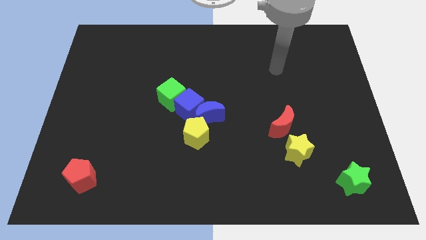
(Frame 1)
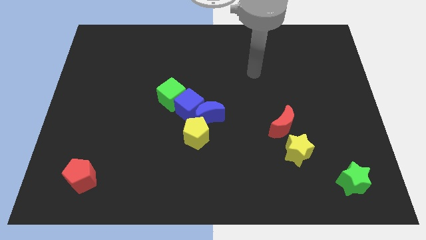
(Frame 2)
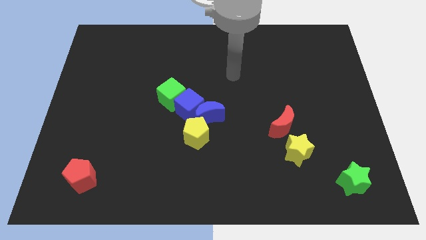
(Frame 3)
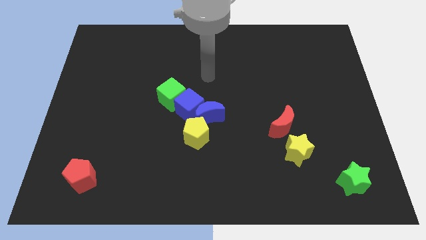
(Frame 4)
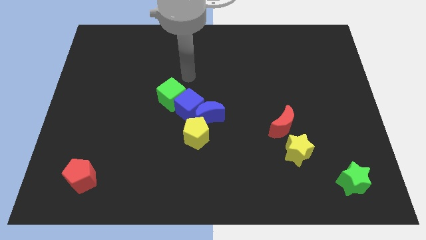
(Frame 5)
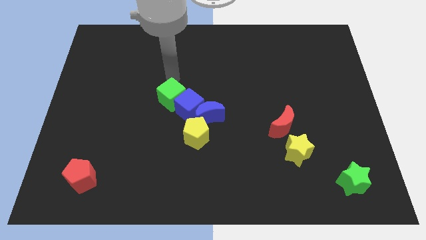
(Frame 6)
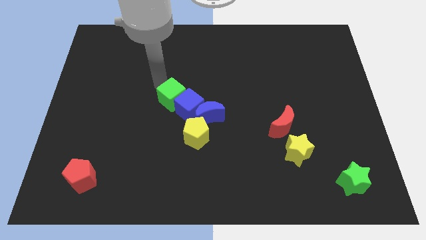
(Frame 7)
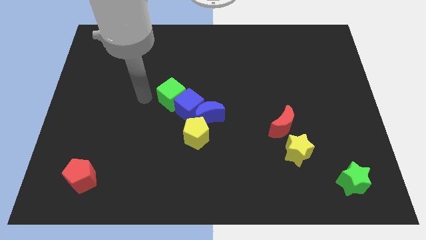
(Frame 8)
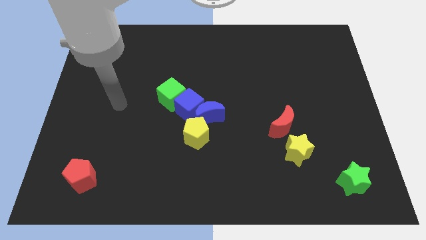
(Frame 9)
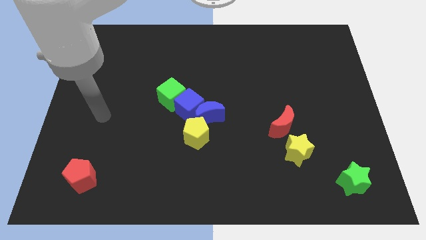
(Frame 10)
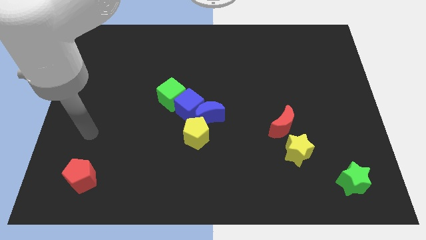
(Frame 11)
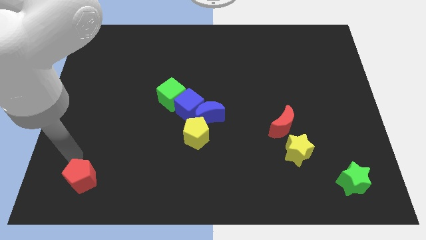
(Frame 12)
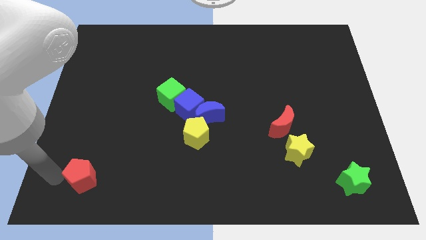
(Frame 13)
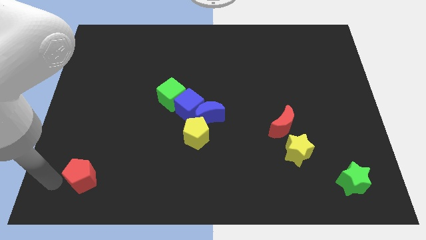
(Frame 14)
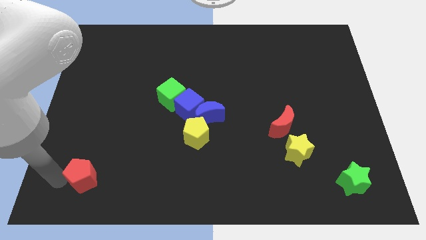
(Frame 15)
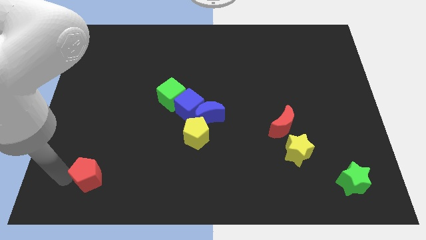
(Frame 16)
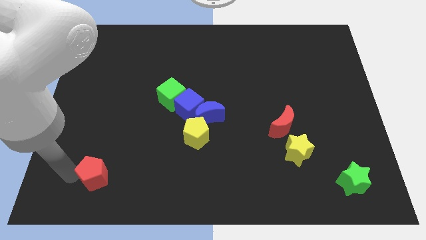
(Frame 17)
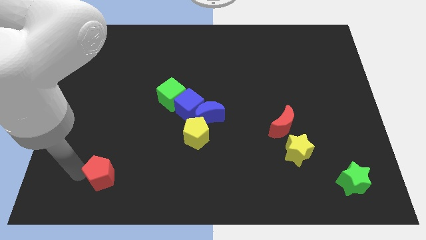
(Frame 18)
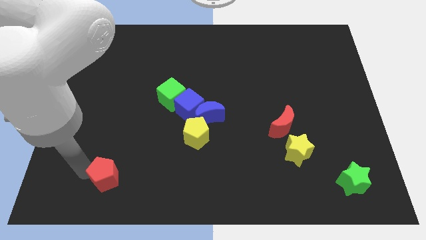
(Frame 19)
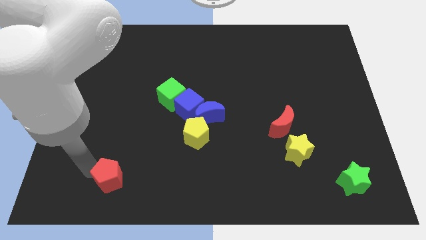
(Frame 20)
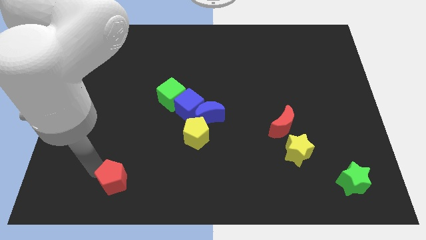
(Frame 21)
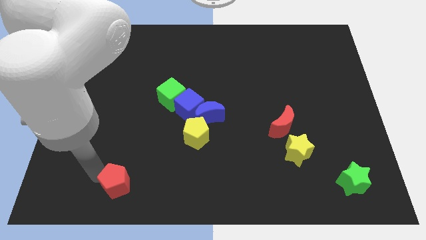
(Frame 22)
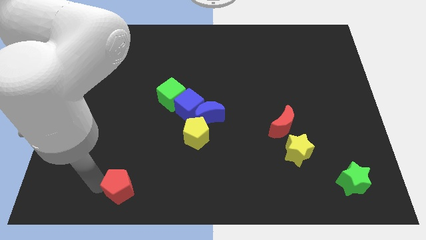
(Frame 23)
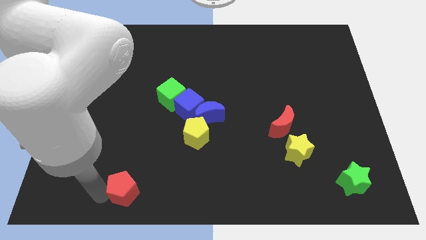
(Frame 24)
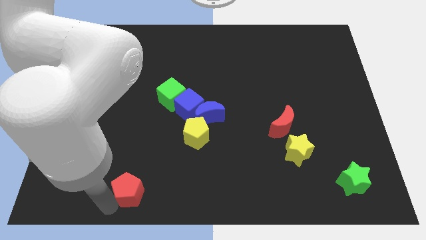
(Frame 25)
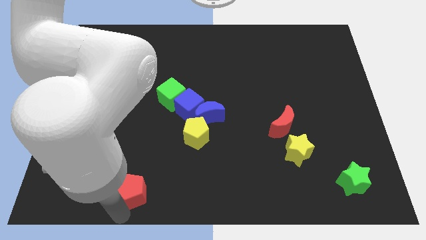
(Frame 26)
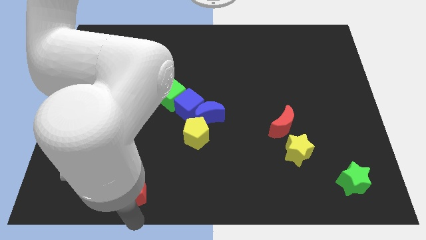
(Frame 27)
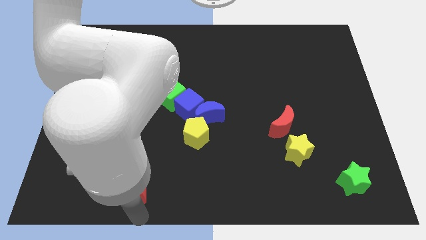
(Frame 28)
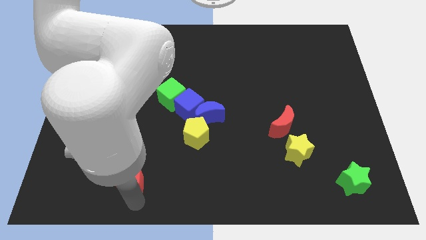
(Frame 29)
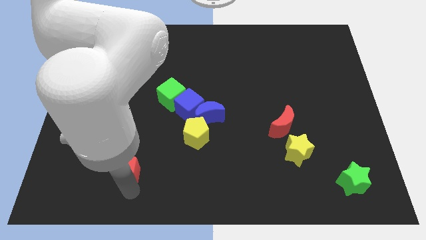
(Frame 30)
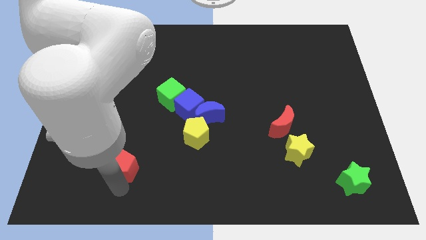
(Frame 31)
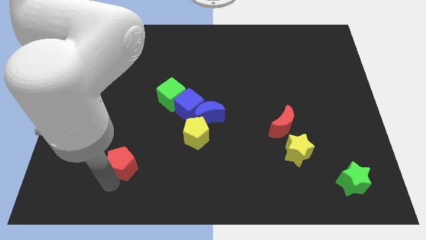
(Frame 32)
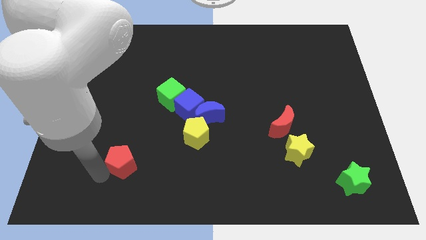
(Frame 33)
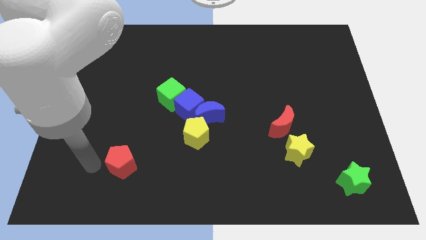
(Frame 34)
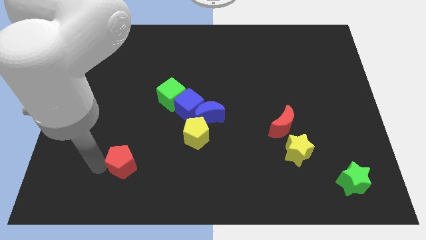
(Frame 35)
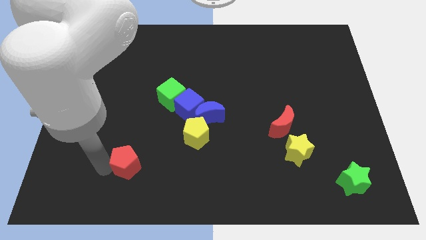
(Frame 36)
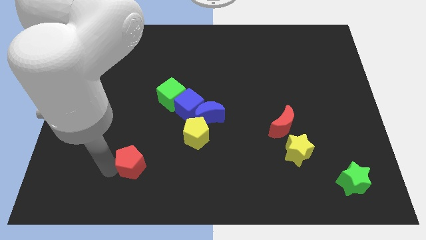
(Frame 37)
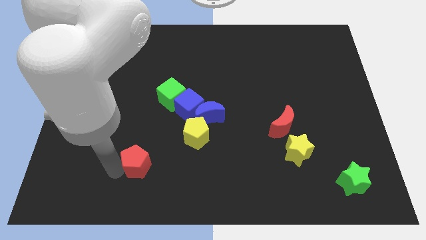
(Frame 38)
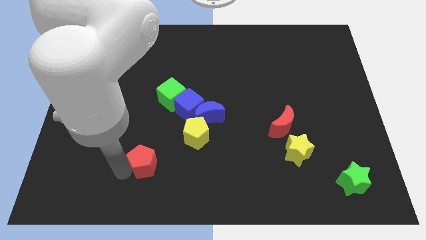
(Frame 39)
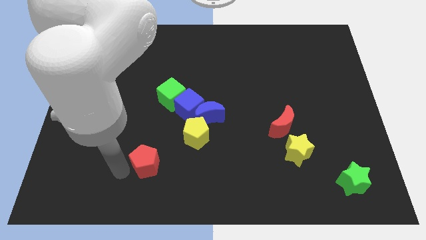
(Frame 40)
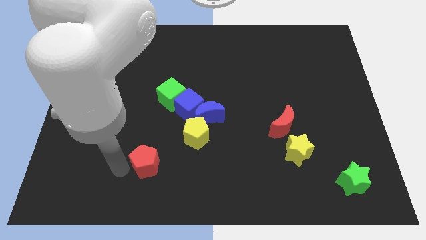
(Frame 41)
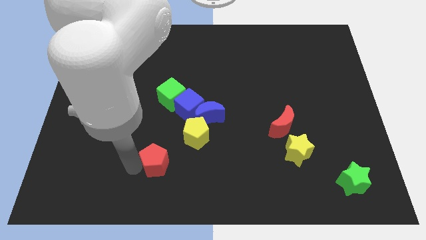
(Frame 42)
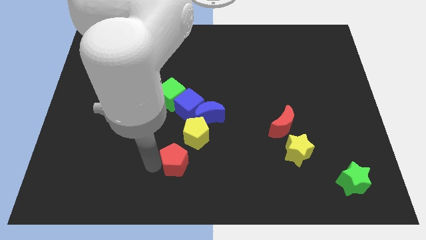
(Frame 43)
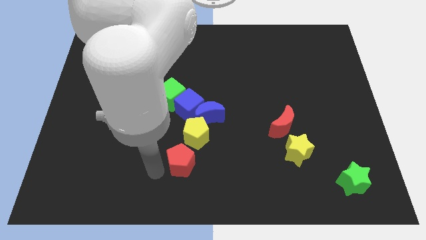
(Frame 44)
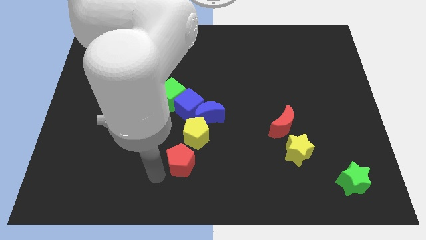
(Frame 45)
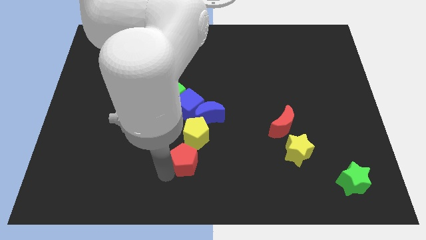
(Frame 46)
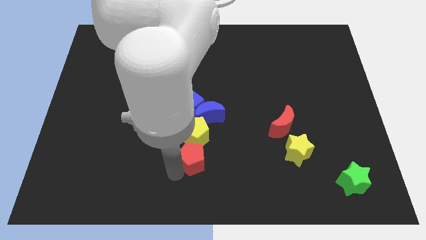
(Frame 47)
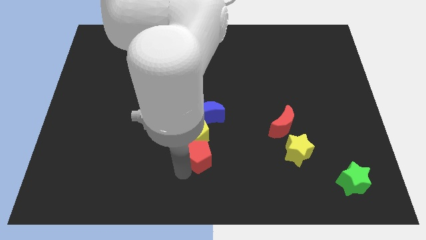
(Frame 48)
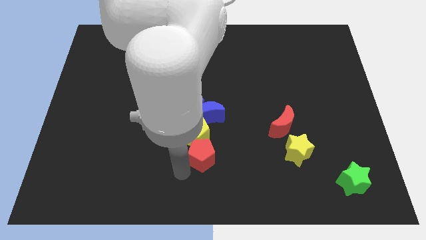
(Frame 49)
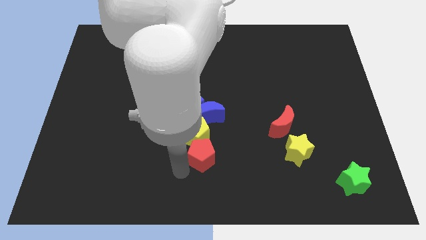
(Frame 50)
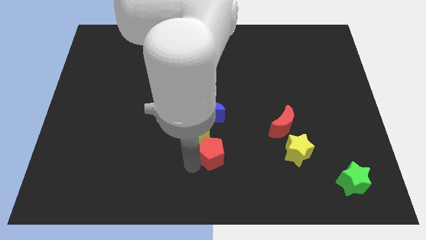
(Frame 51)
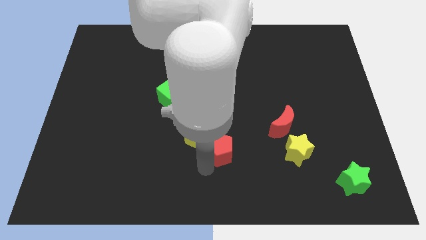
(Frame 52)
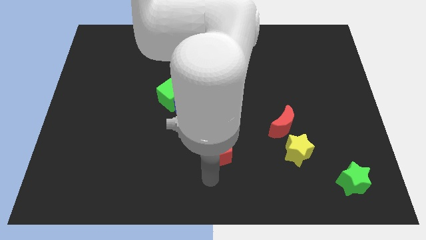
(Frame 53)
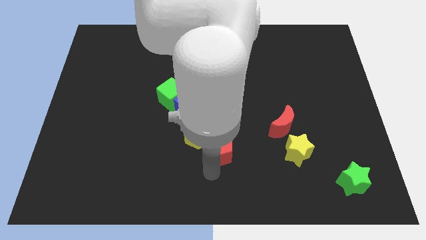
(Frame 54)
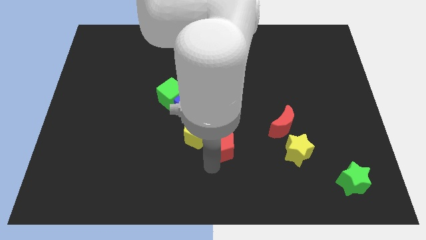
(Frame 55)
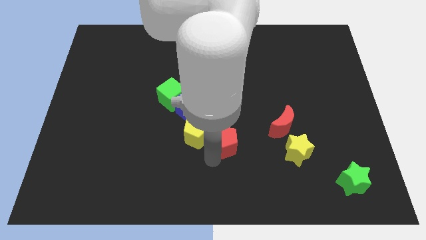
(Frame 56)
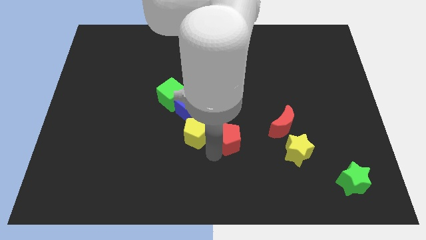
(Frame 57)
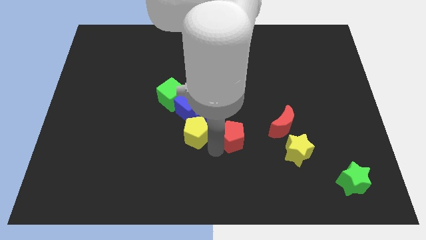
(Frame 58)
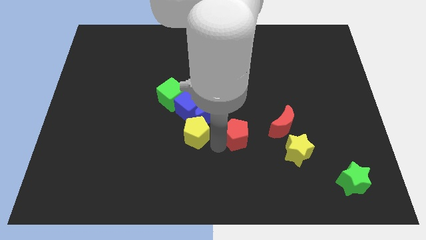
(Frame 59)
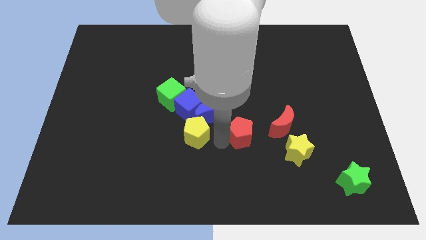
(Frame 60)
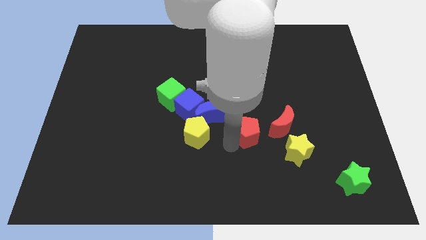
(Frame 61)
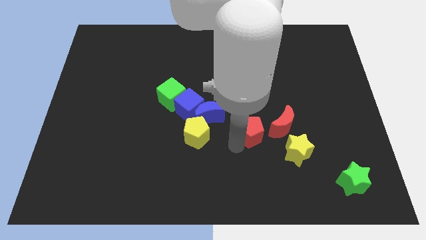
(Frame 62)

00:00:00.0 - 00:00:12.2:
push the red pentagon just right of the blue moon

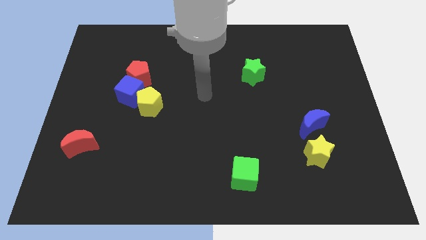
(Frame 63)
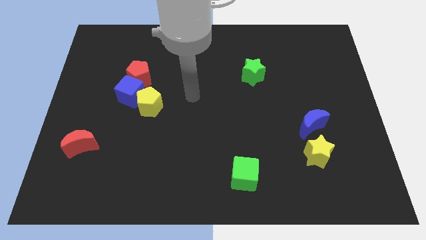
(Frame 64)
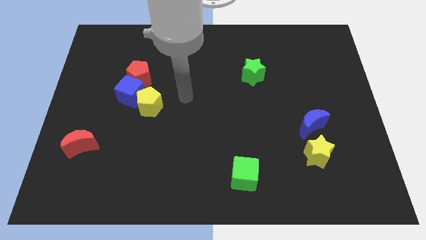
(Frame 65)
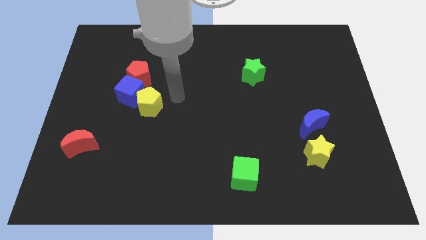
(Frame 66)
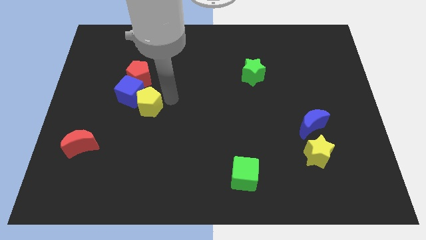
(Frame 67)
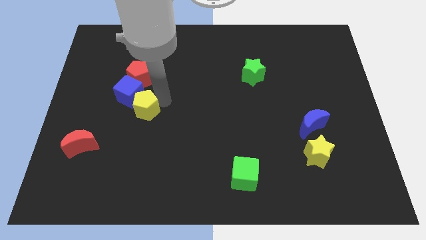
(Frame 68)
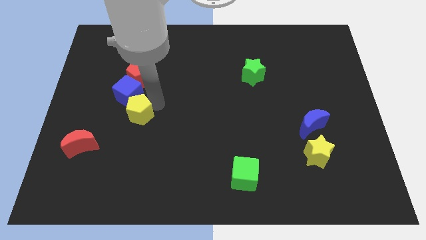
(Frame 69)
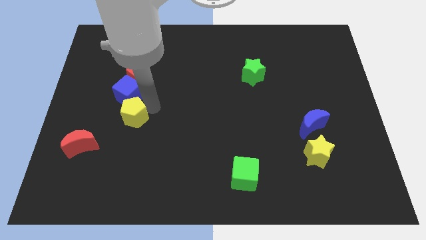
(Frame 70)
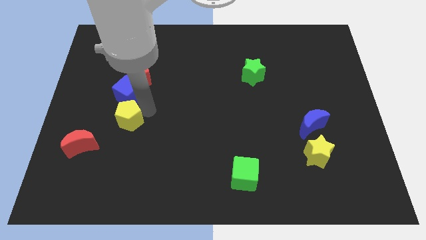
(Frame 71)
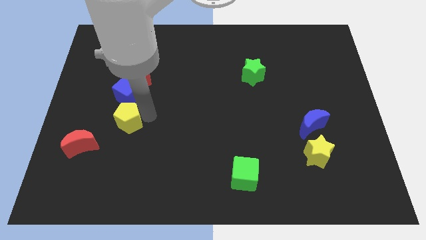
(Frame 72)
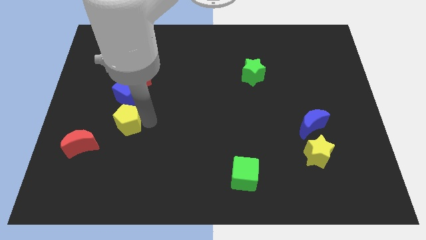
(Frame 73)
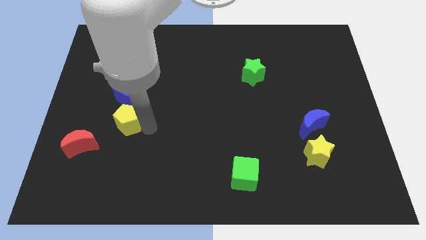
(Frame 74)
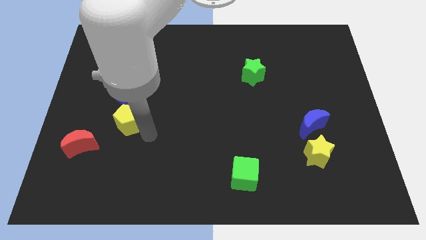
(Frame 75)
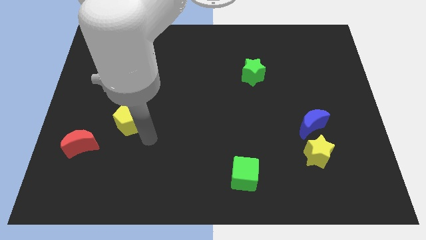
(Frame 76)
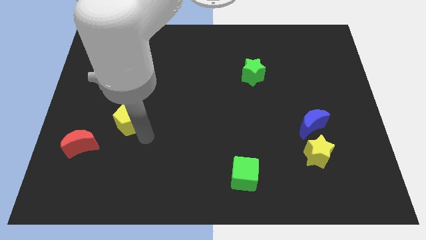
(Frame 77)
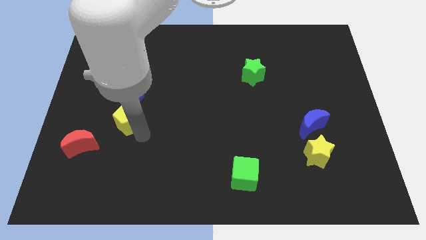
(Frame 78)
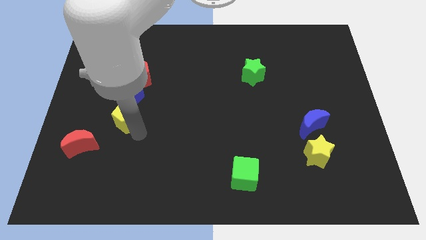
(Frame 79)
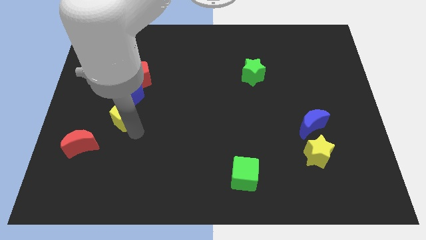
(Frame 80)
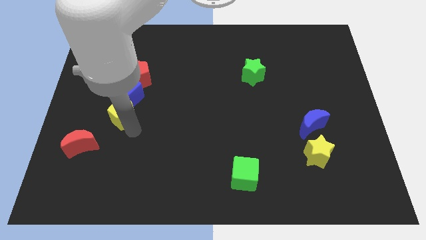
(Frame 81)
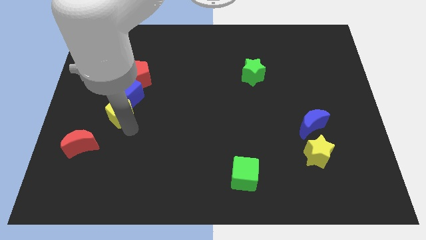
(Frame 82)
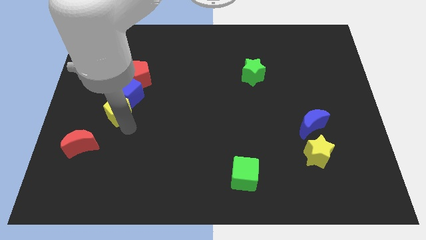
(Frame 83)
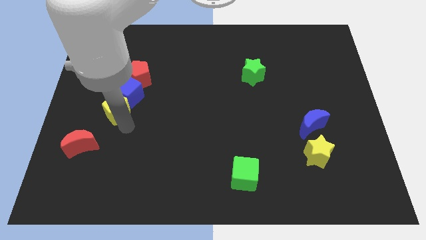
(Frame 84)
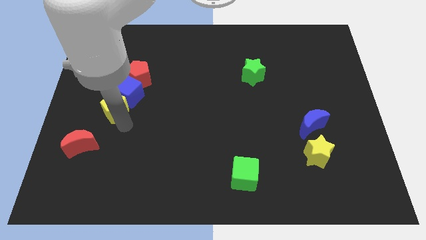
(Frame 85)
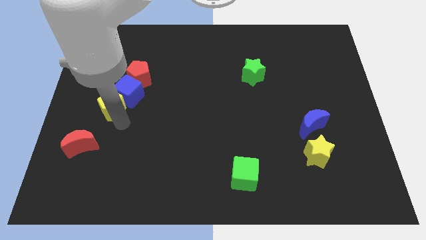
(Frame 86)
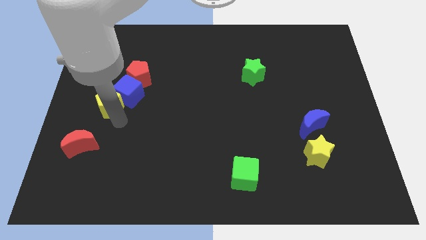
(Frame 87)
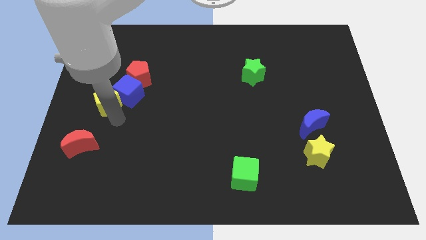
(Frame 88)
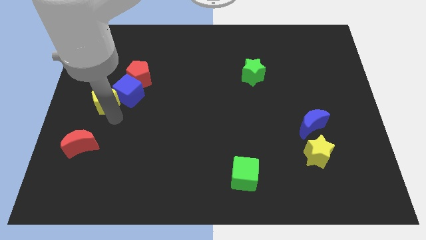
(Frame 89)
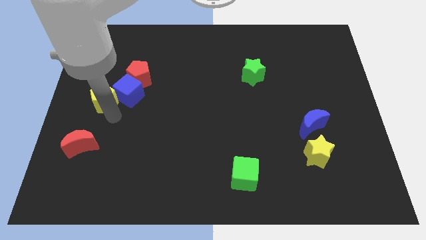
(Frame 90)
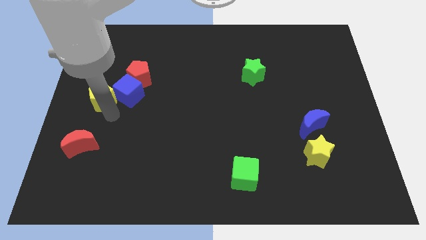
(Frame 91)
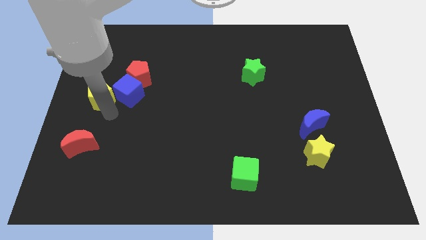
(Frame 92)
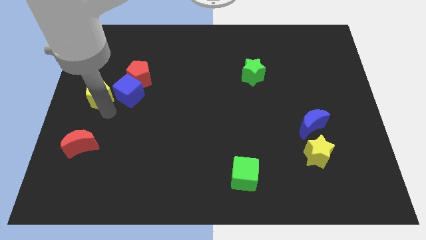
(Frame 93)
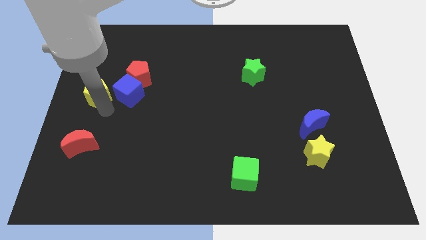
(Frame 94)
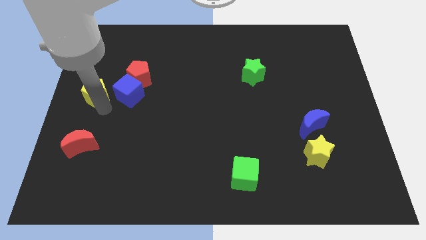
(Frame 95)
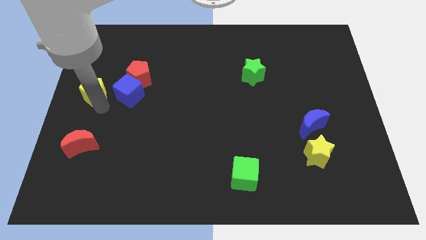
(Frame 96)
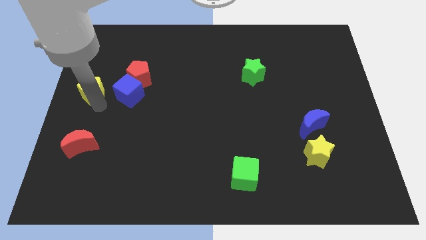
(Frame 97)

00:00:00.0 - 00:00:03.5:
put the yellow pentagon to the left side of the red pentagon
